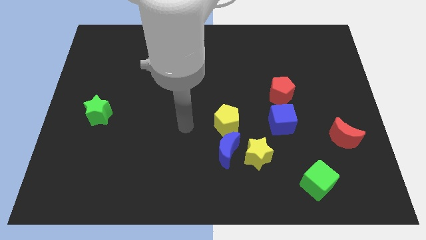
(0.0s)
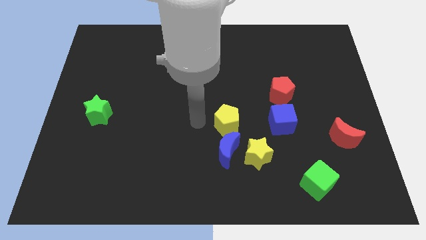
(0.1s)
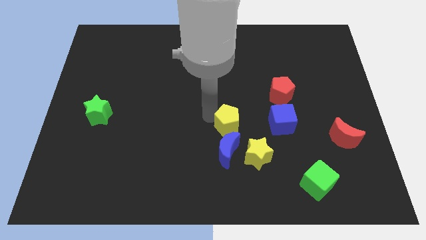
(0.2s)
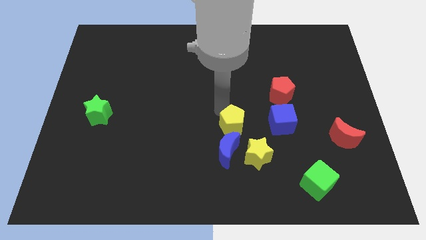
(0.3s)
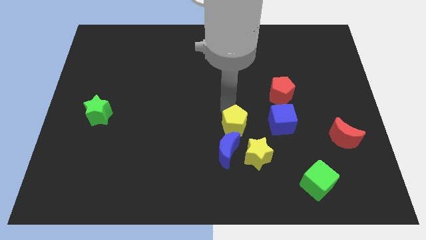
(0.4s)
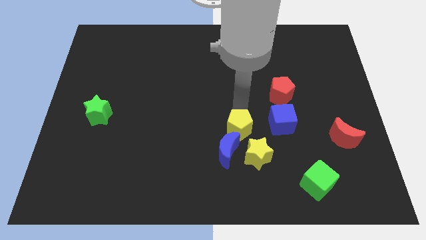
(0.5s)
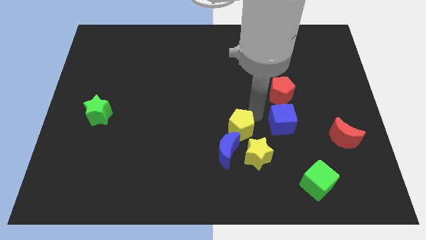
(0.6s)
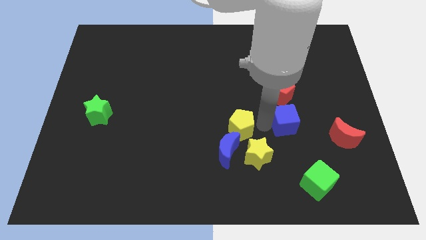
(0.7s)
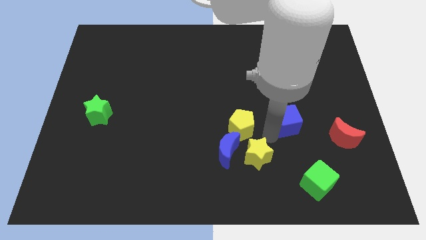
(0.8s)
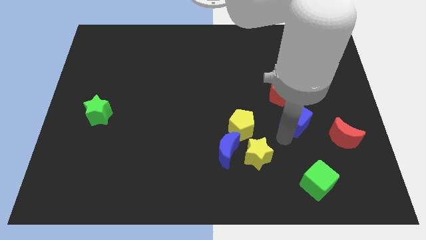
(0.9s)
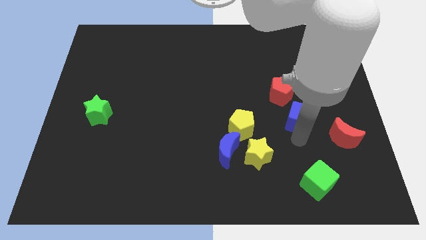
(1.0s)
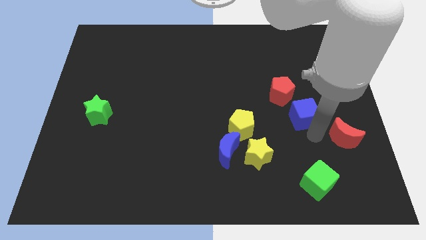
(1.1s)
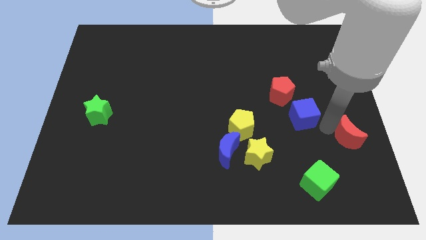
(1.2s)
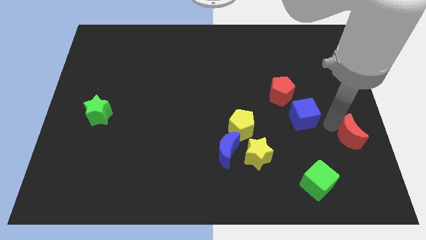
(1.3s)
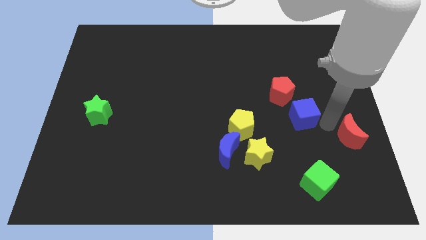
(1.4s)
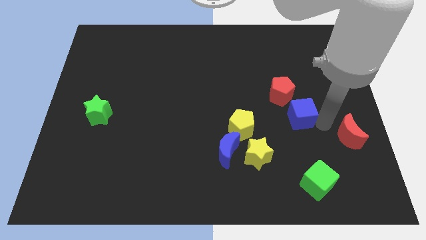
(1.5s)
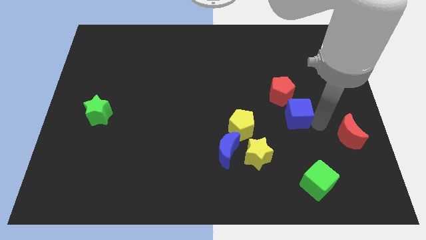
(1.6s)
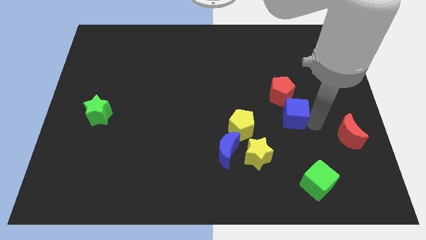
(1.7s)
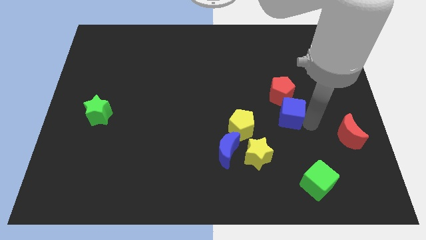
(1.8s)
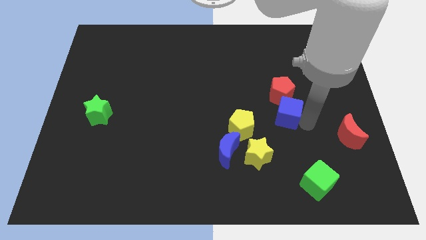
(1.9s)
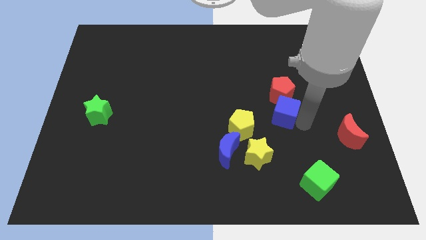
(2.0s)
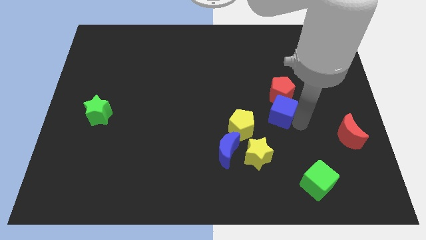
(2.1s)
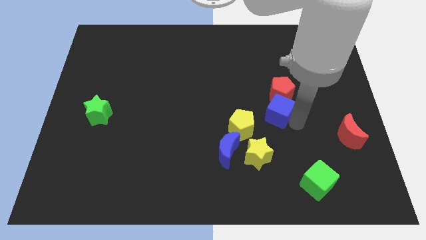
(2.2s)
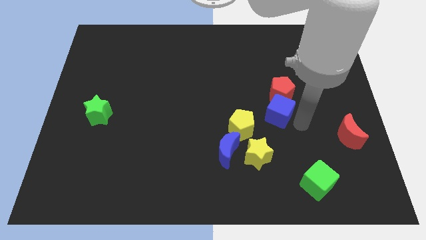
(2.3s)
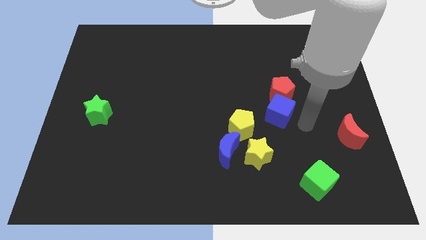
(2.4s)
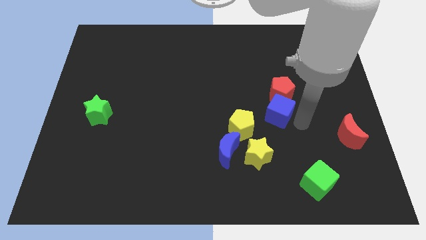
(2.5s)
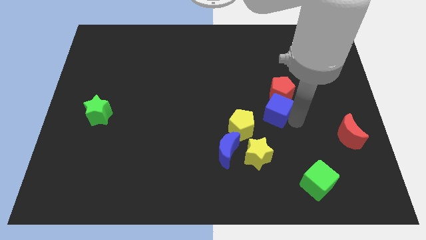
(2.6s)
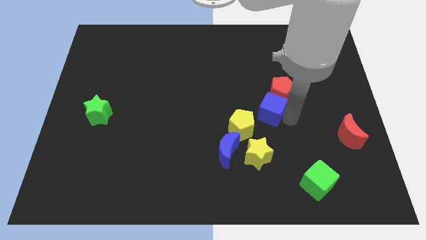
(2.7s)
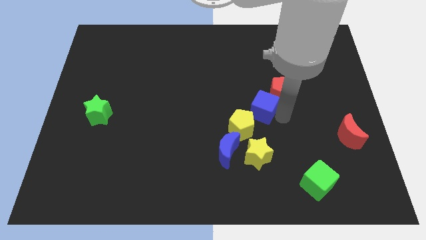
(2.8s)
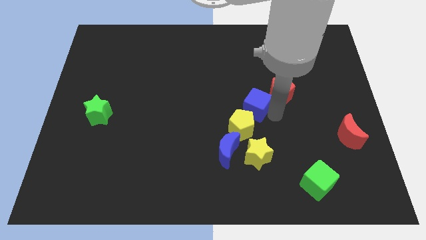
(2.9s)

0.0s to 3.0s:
slide the blue cube a bit up and to the left

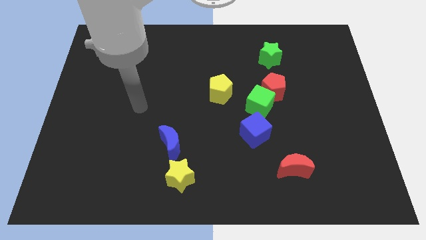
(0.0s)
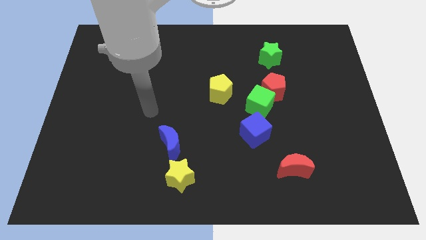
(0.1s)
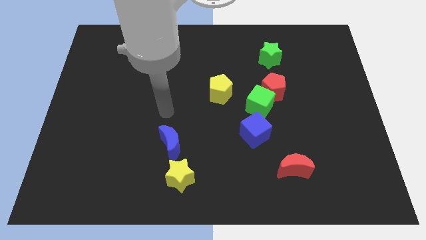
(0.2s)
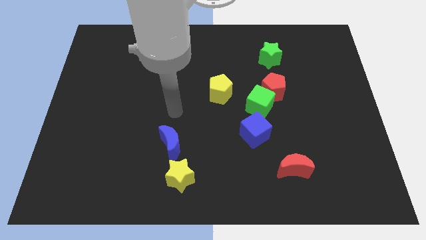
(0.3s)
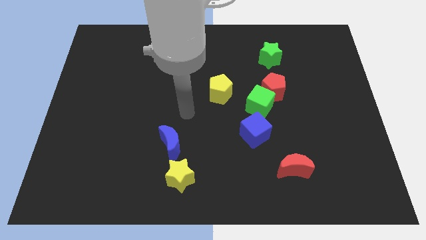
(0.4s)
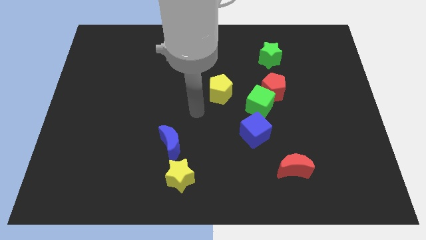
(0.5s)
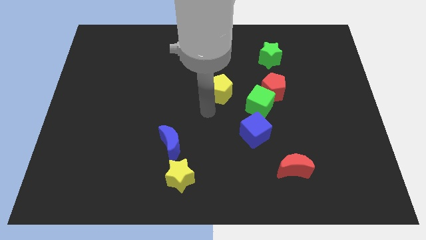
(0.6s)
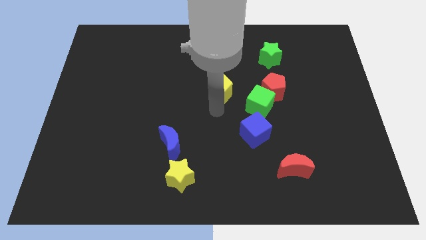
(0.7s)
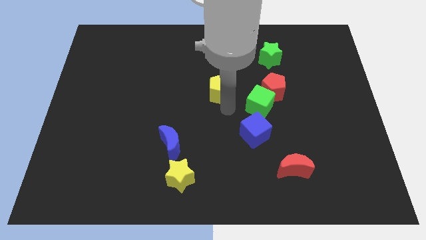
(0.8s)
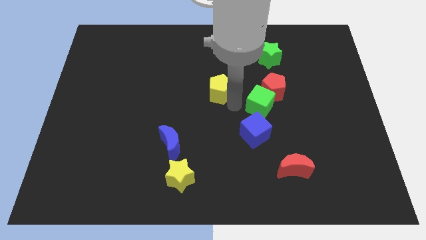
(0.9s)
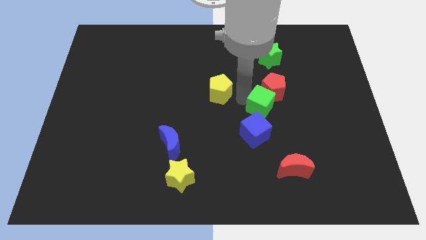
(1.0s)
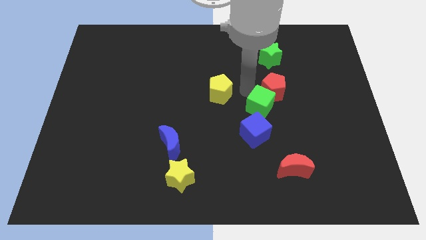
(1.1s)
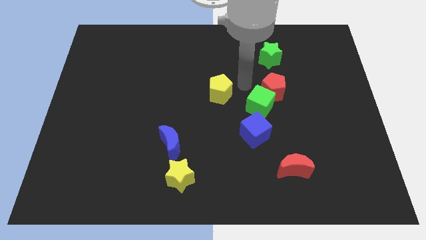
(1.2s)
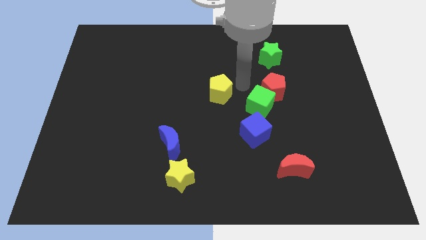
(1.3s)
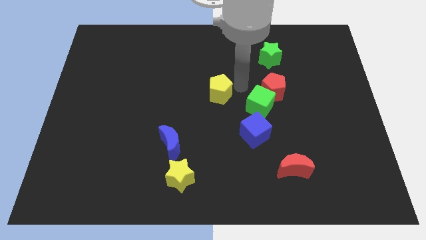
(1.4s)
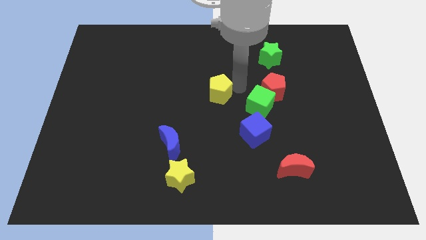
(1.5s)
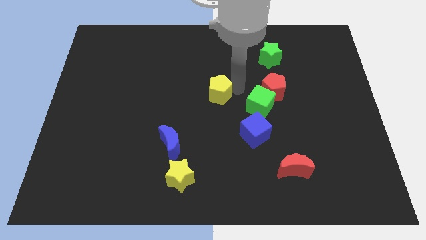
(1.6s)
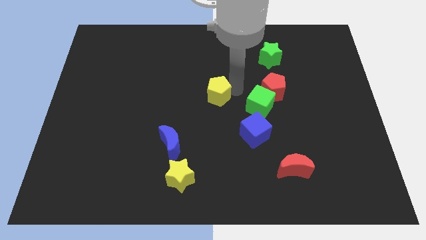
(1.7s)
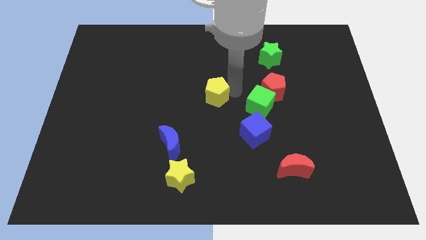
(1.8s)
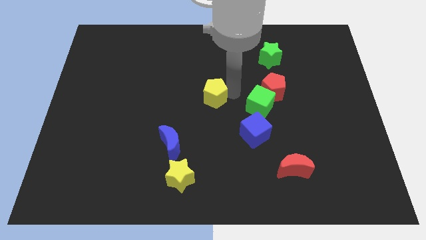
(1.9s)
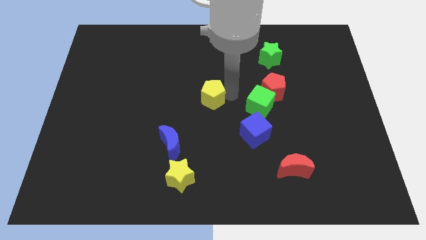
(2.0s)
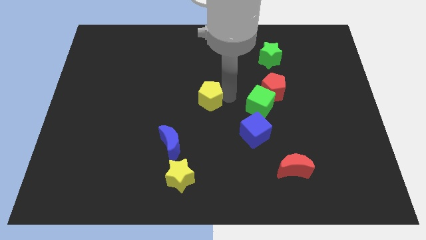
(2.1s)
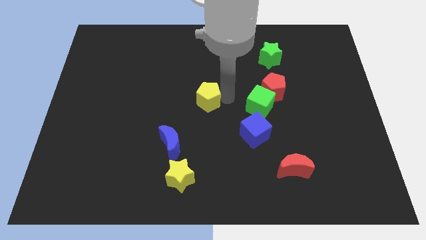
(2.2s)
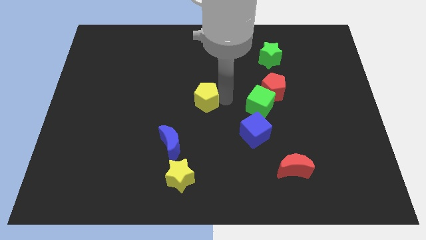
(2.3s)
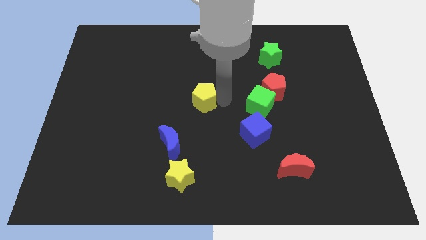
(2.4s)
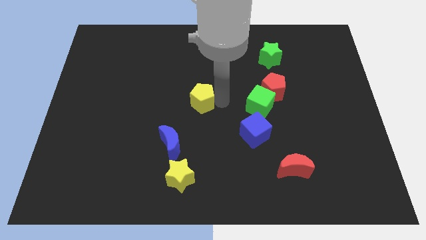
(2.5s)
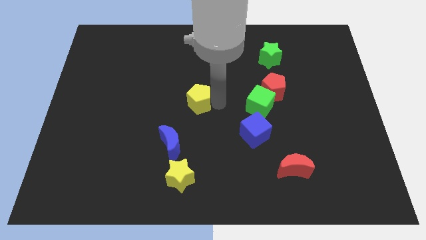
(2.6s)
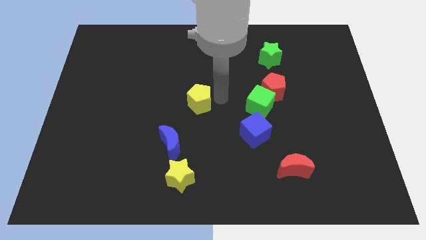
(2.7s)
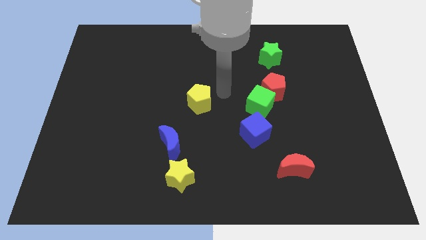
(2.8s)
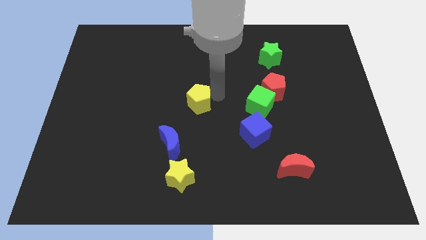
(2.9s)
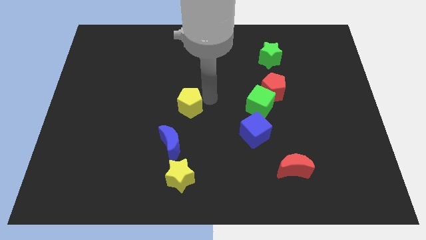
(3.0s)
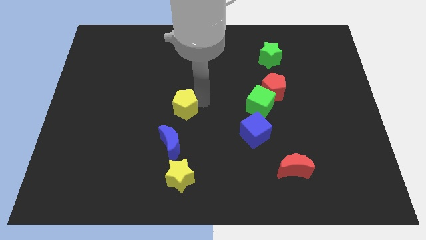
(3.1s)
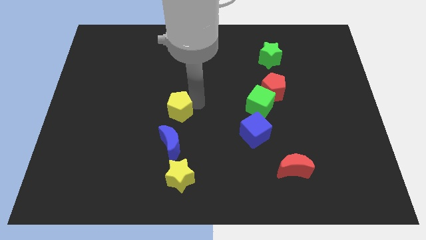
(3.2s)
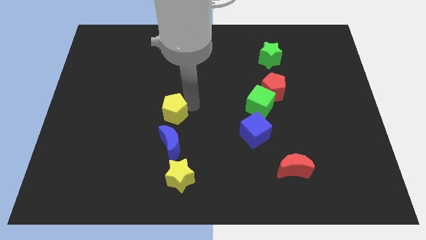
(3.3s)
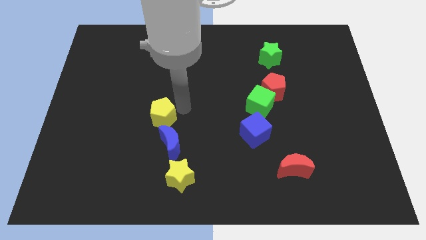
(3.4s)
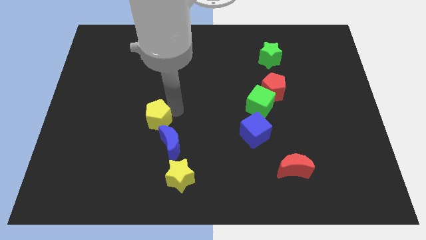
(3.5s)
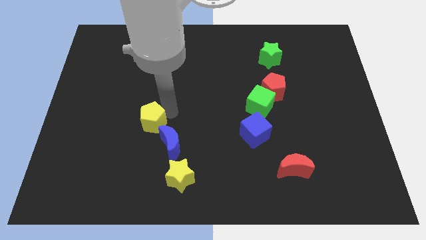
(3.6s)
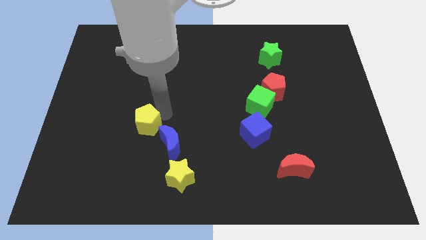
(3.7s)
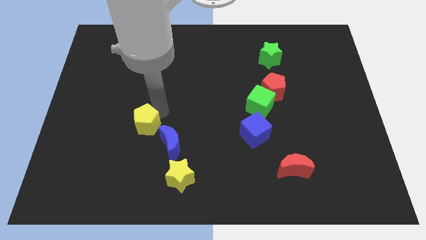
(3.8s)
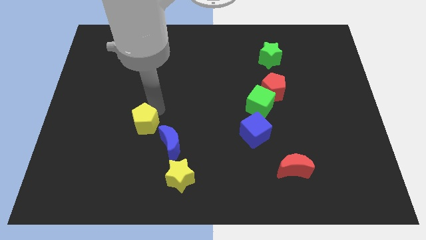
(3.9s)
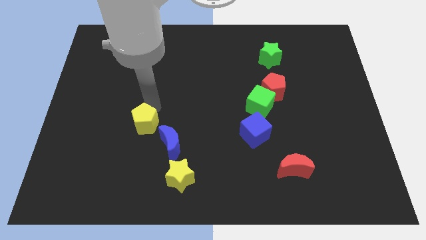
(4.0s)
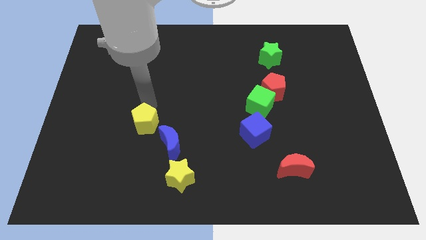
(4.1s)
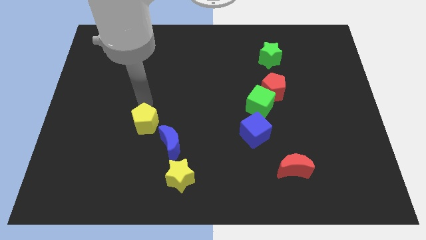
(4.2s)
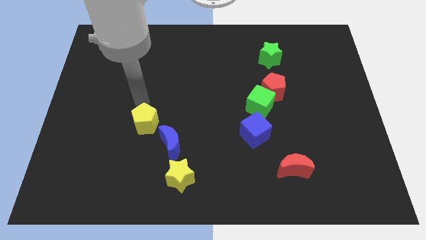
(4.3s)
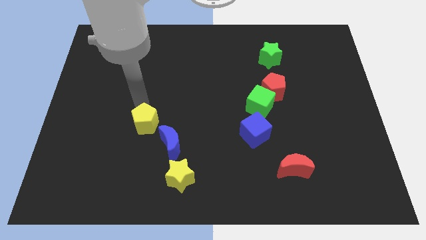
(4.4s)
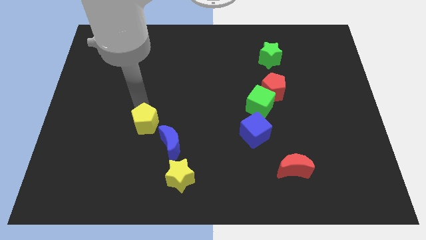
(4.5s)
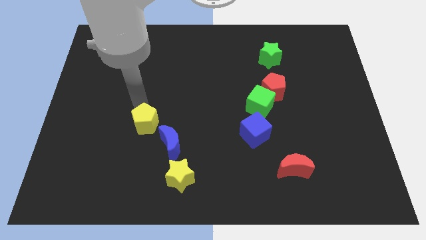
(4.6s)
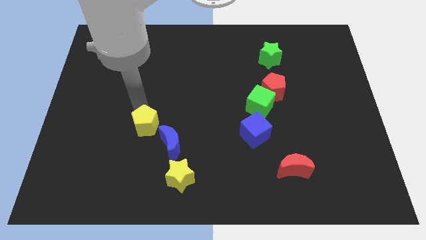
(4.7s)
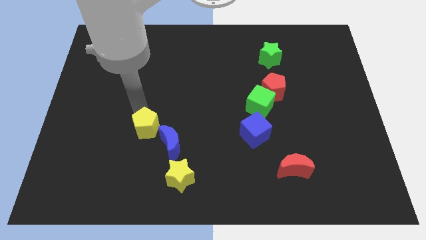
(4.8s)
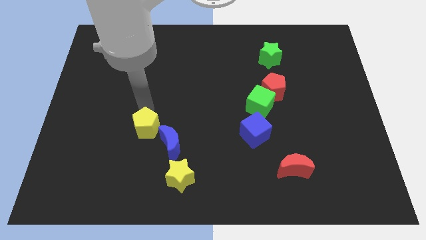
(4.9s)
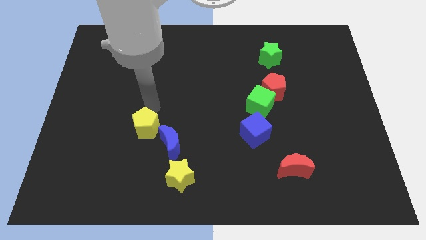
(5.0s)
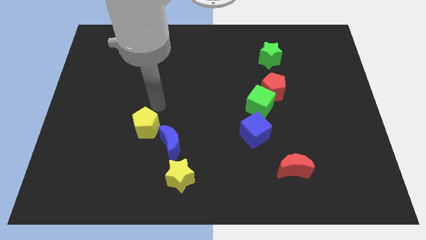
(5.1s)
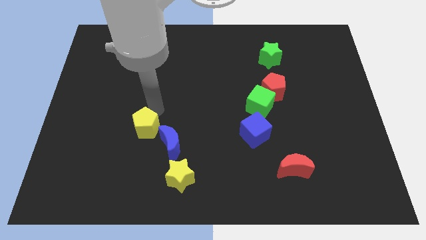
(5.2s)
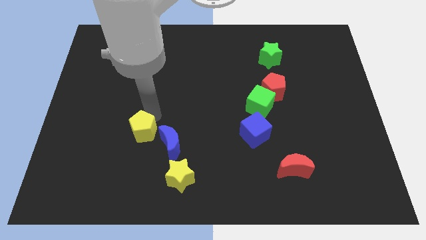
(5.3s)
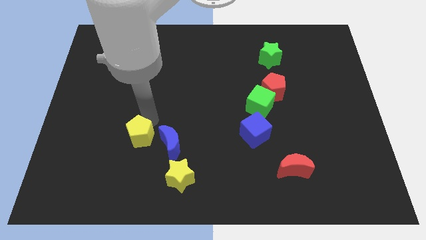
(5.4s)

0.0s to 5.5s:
slide the yellow pentagon down and to the left
